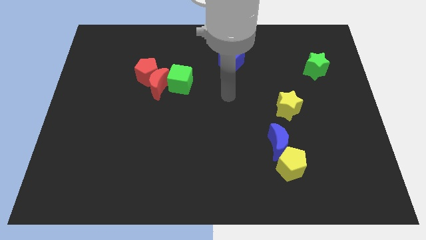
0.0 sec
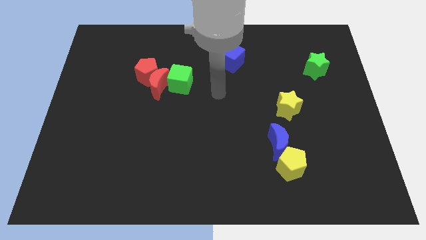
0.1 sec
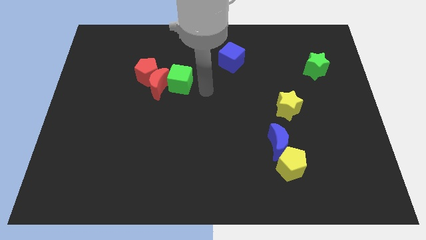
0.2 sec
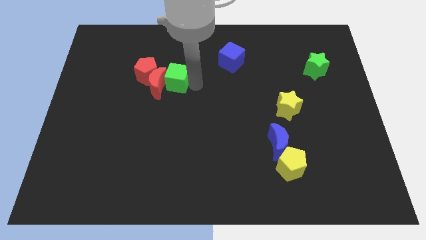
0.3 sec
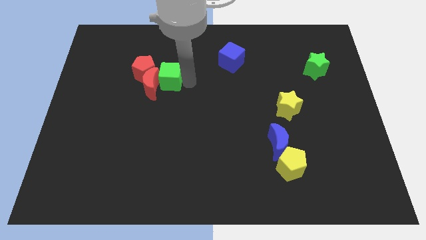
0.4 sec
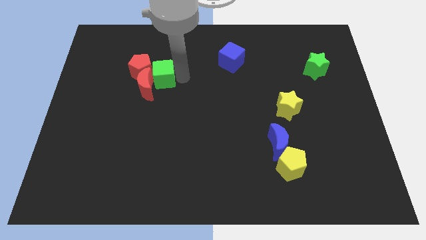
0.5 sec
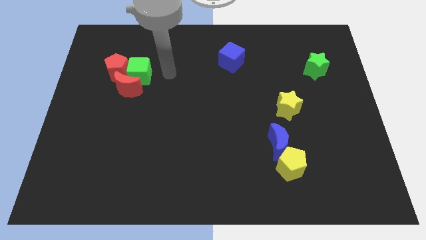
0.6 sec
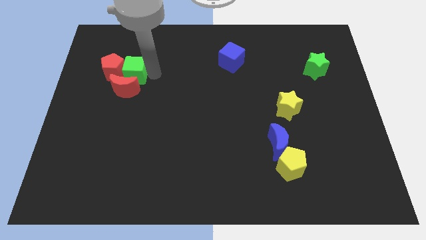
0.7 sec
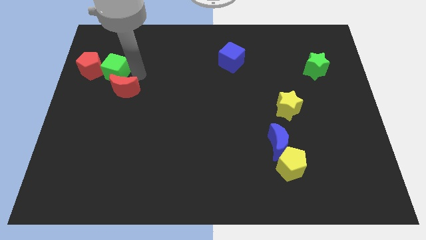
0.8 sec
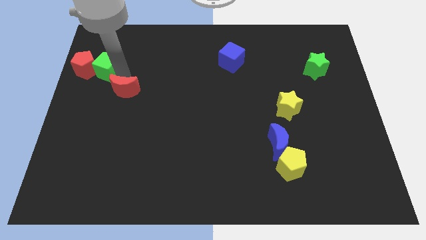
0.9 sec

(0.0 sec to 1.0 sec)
separate the red moon from the red pentagon and green cube

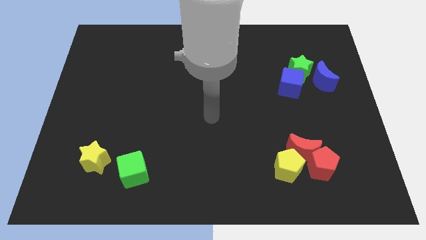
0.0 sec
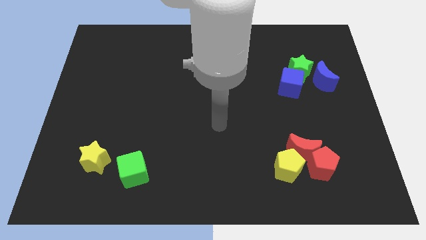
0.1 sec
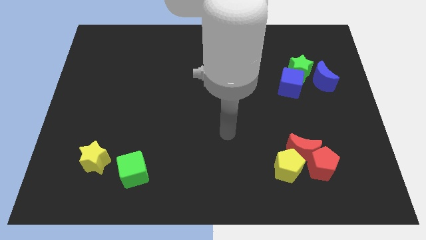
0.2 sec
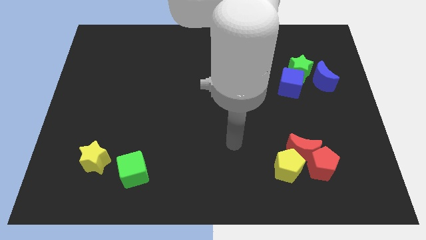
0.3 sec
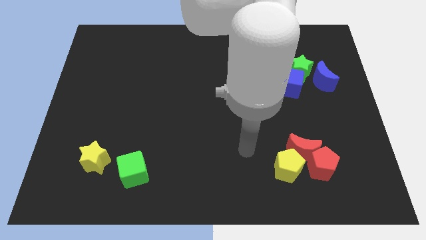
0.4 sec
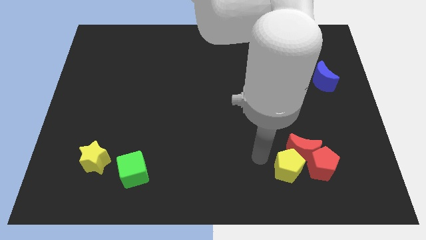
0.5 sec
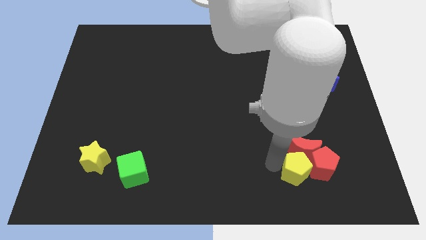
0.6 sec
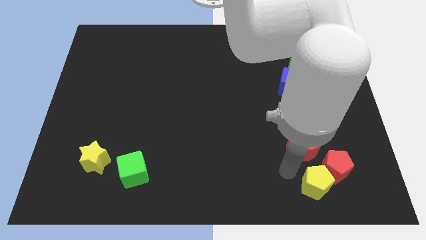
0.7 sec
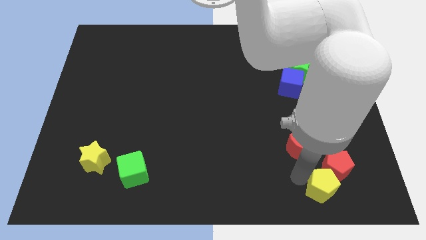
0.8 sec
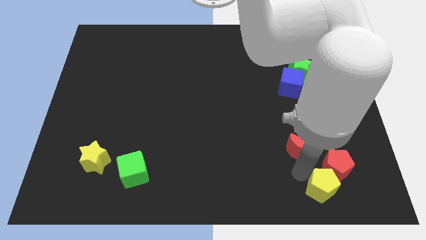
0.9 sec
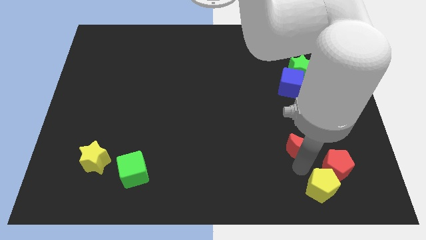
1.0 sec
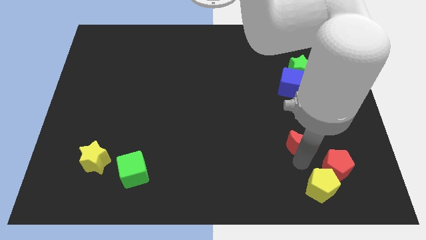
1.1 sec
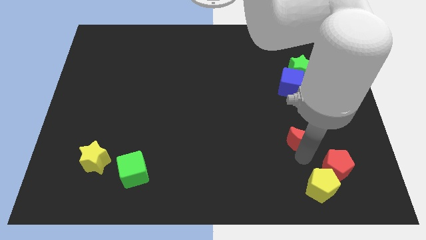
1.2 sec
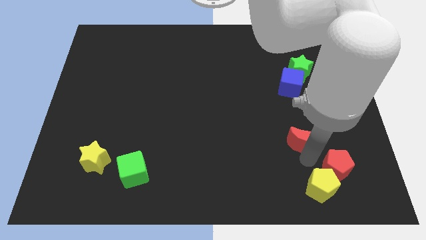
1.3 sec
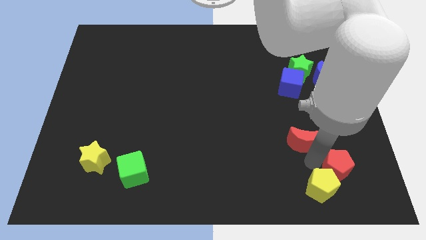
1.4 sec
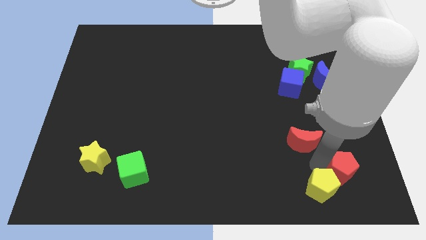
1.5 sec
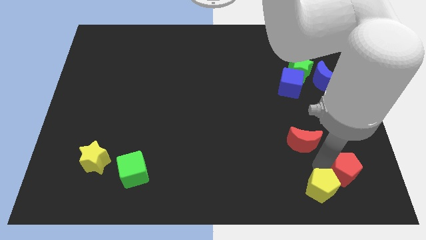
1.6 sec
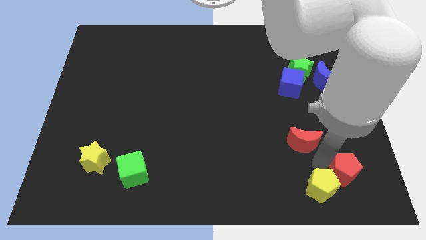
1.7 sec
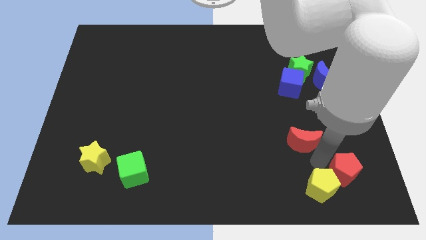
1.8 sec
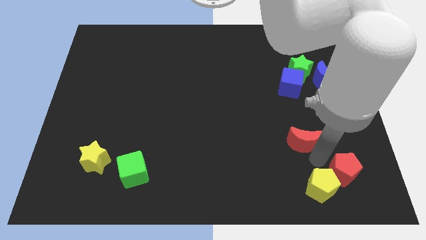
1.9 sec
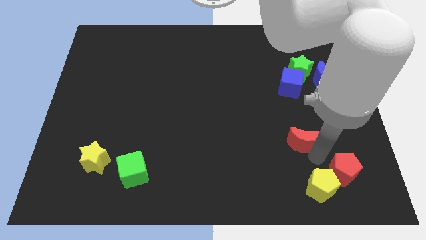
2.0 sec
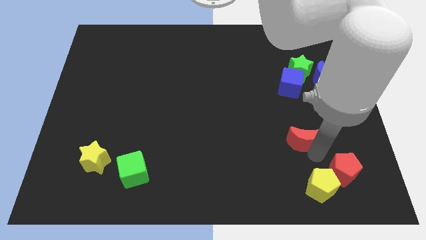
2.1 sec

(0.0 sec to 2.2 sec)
move the red moon away from the red pentagon and yellow pentagon

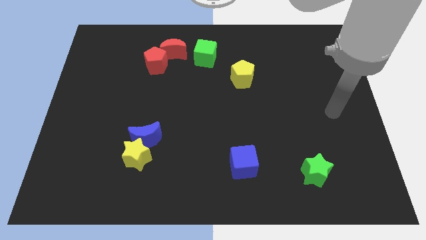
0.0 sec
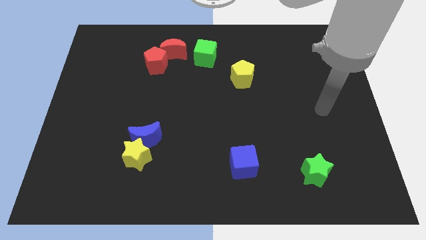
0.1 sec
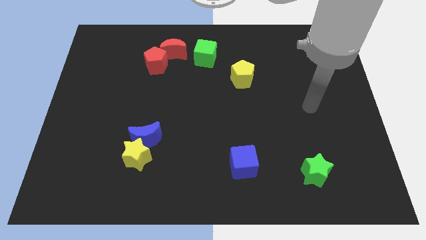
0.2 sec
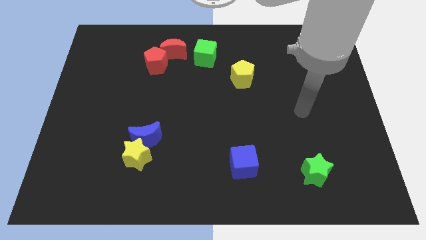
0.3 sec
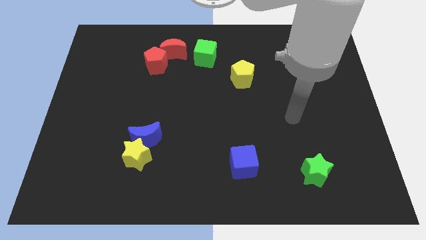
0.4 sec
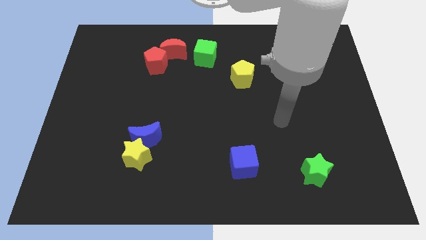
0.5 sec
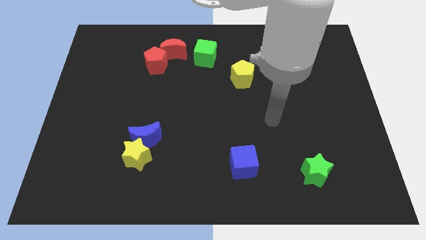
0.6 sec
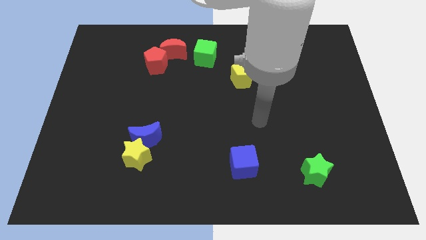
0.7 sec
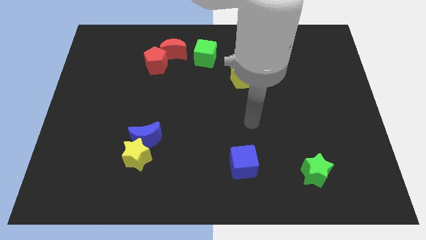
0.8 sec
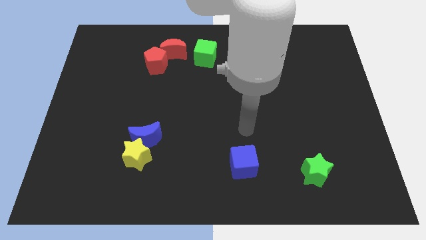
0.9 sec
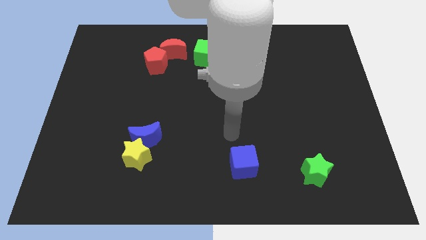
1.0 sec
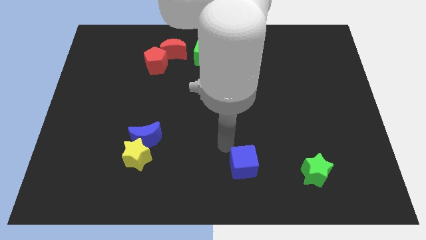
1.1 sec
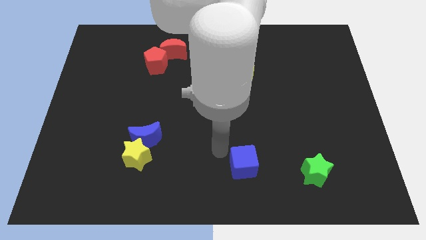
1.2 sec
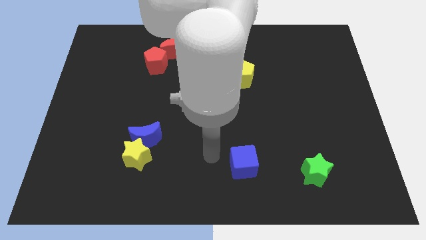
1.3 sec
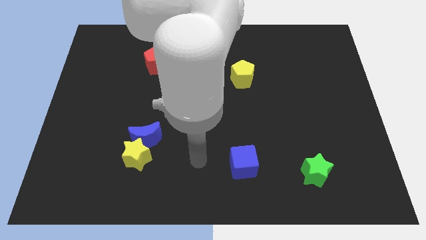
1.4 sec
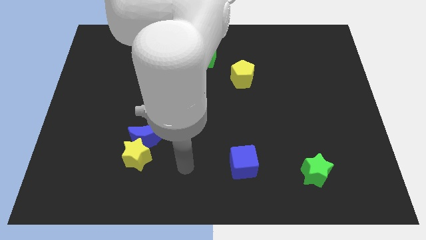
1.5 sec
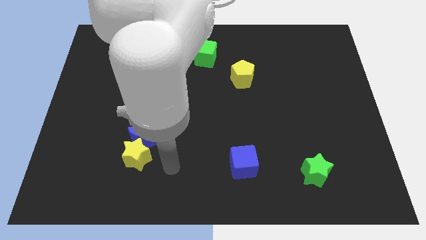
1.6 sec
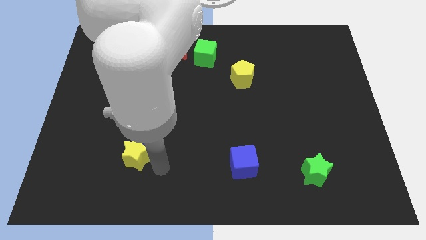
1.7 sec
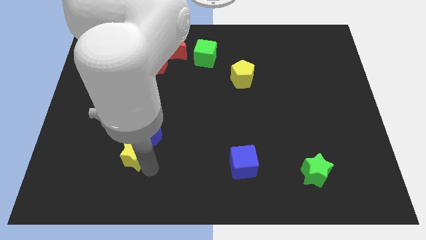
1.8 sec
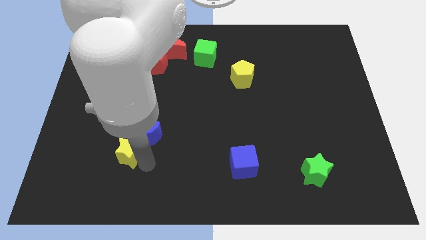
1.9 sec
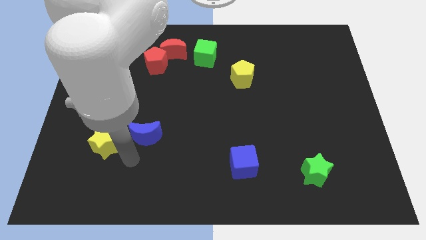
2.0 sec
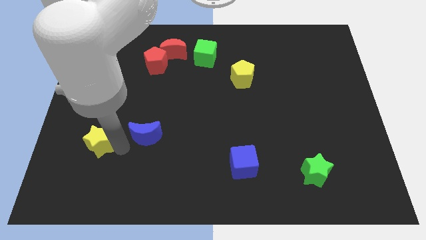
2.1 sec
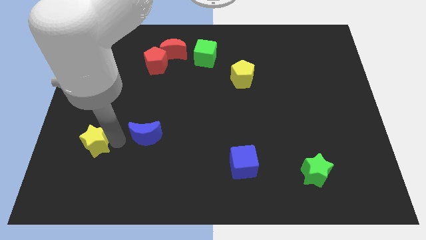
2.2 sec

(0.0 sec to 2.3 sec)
separate the blue moon from the yellow star

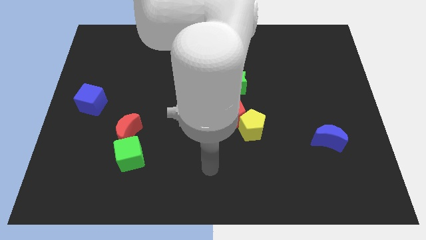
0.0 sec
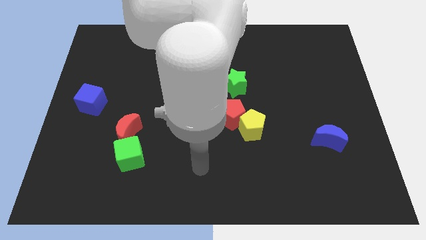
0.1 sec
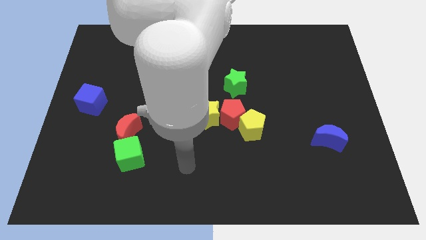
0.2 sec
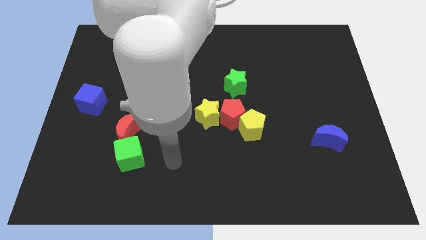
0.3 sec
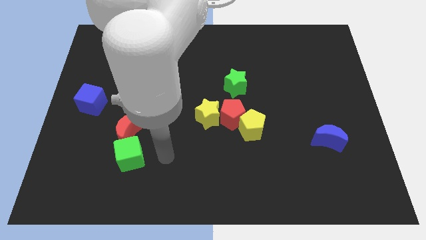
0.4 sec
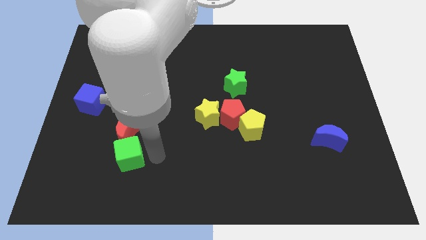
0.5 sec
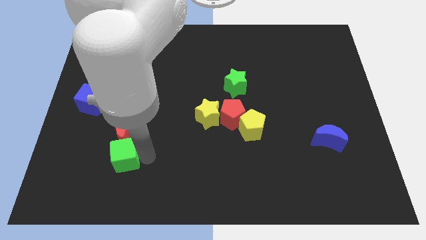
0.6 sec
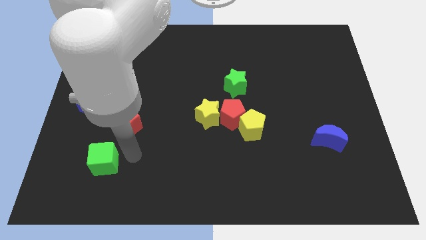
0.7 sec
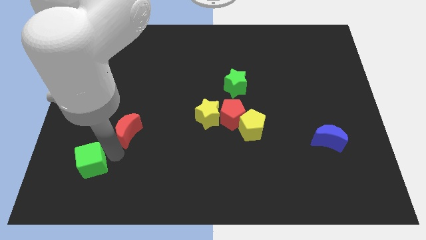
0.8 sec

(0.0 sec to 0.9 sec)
move the red moon away from the green cube

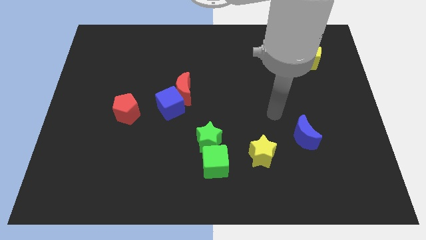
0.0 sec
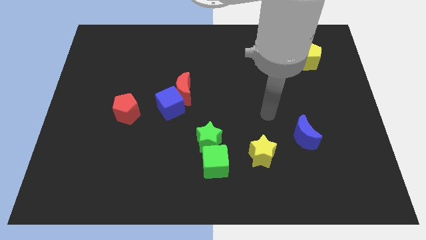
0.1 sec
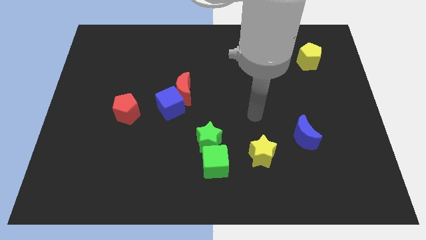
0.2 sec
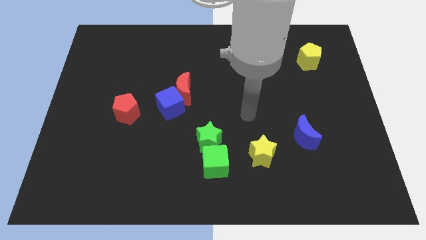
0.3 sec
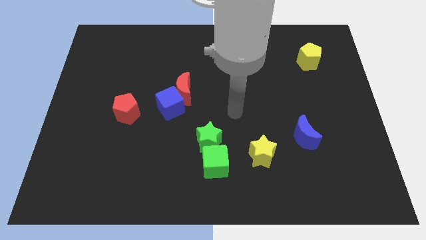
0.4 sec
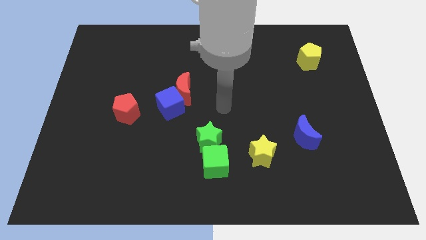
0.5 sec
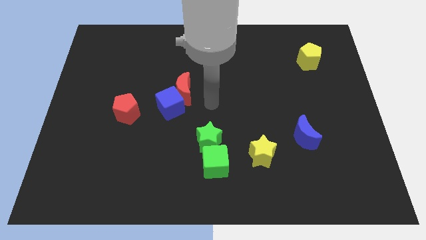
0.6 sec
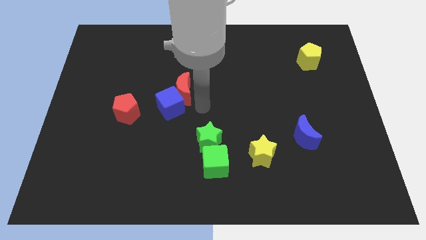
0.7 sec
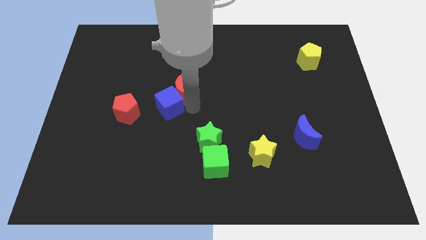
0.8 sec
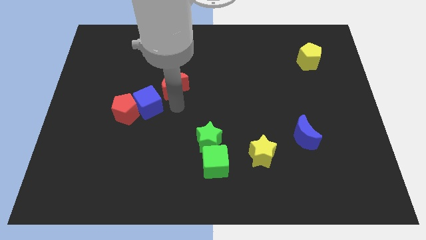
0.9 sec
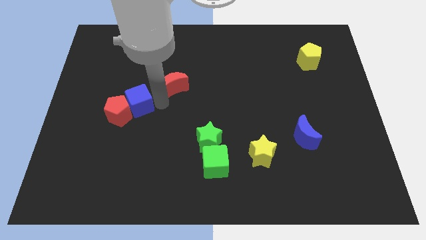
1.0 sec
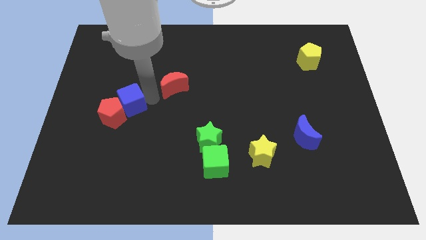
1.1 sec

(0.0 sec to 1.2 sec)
move the red moon away from the blue cube

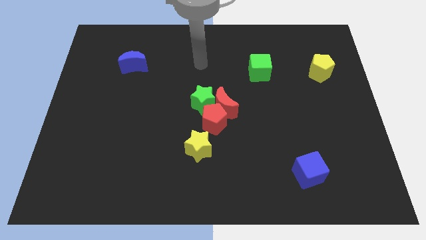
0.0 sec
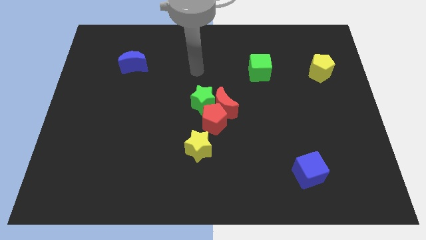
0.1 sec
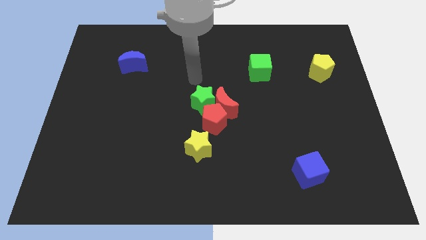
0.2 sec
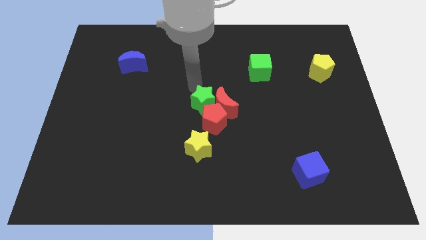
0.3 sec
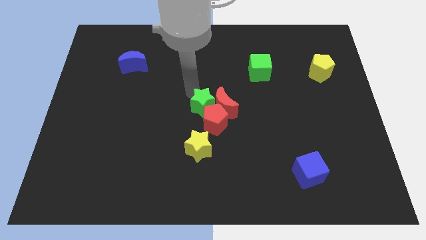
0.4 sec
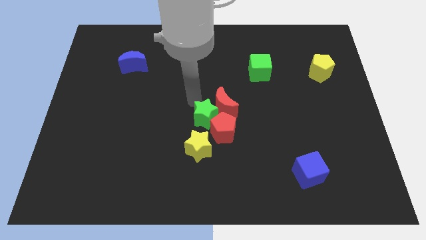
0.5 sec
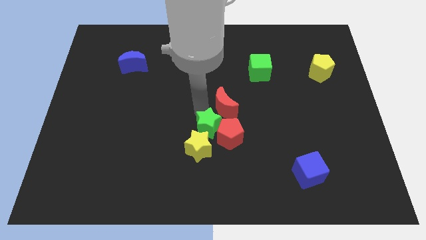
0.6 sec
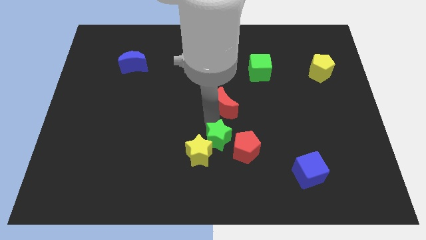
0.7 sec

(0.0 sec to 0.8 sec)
move the red moon away from the red pentagon and green star

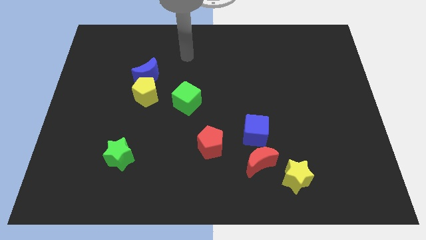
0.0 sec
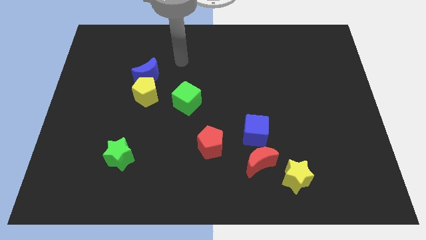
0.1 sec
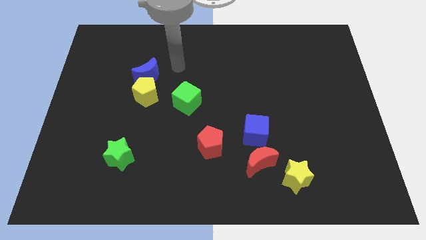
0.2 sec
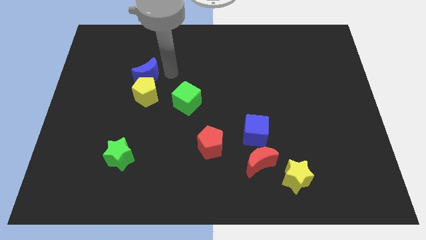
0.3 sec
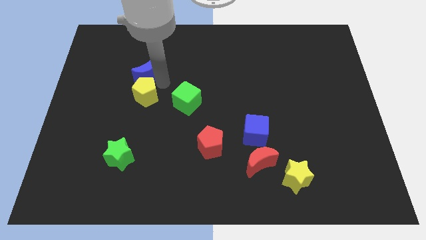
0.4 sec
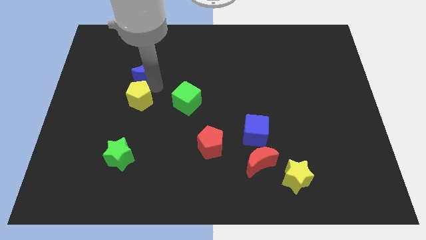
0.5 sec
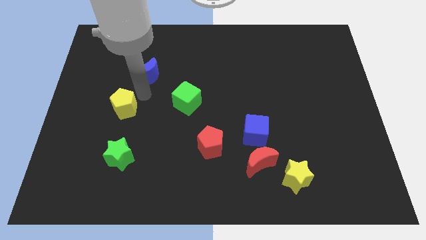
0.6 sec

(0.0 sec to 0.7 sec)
separate the blue moon from the yellow pentagon

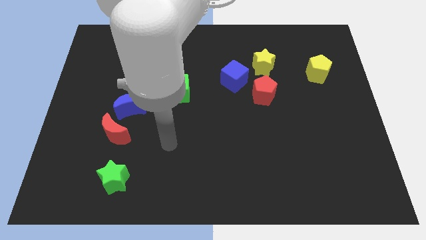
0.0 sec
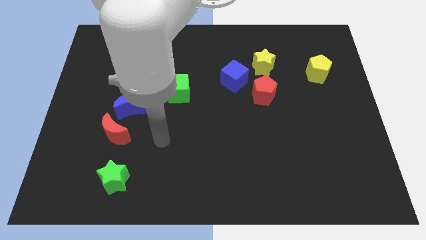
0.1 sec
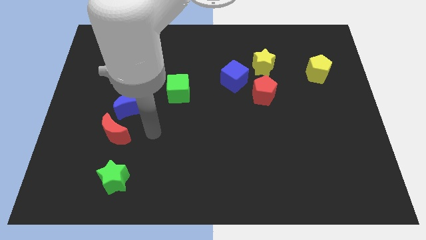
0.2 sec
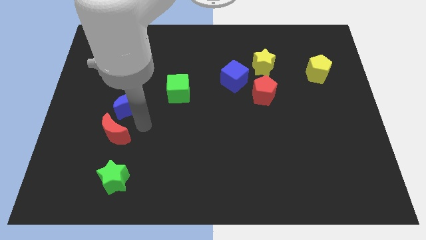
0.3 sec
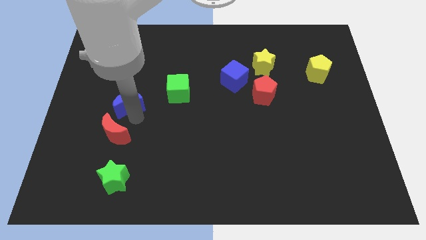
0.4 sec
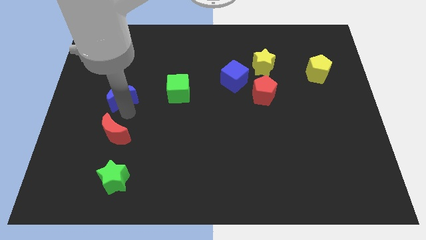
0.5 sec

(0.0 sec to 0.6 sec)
move the red moon away from the blue moon
